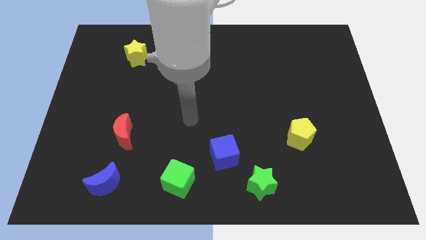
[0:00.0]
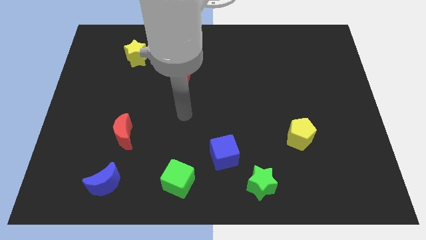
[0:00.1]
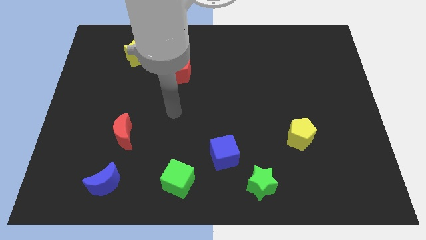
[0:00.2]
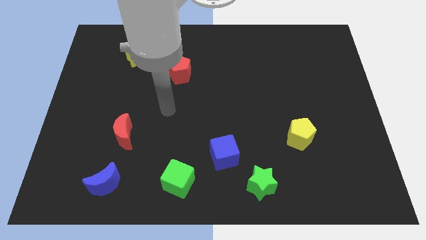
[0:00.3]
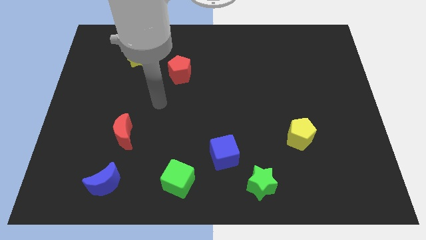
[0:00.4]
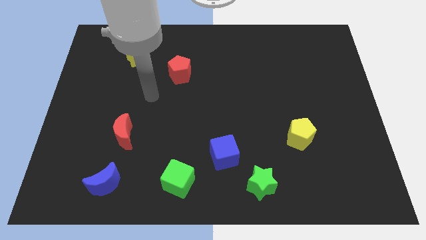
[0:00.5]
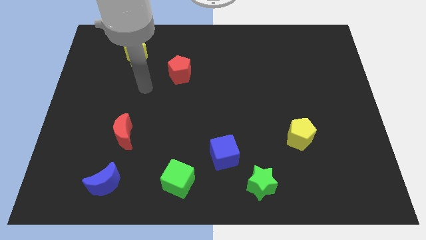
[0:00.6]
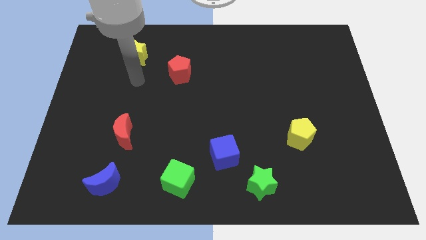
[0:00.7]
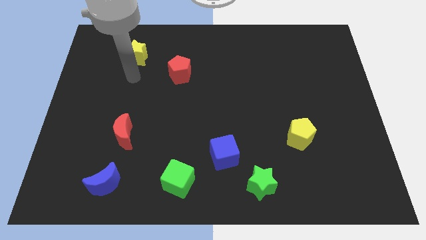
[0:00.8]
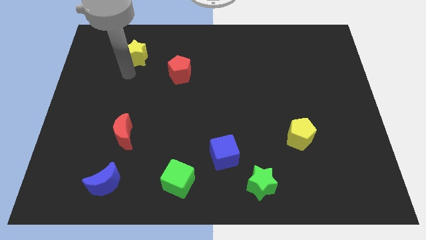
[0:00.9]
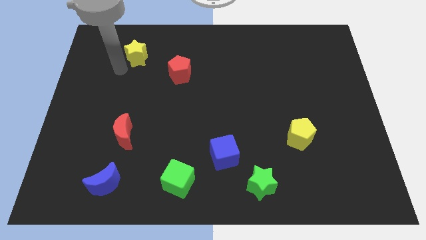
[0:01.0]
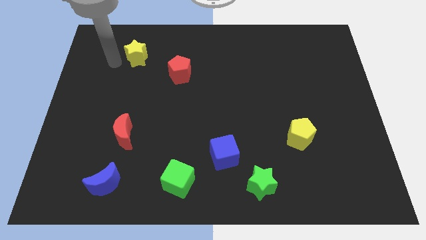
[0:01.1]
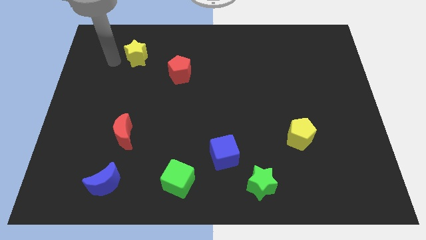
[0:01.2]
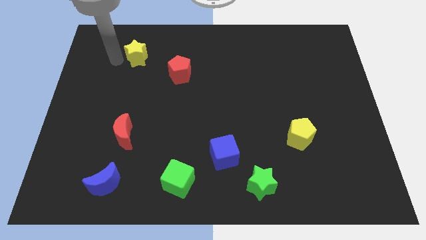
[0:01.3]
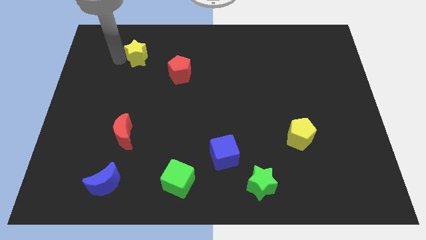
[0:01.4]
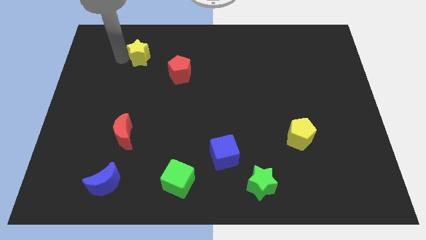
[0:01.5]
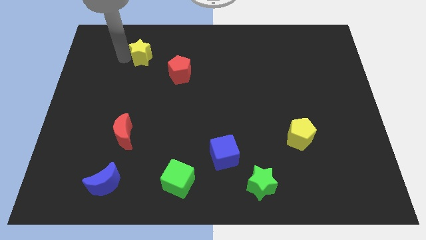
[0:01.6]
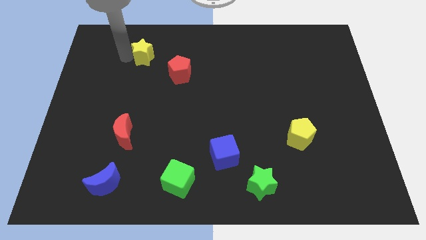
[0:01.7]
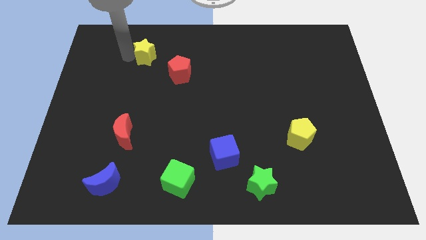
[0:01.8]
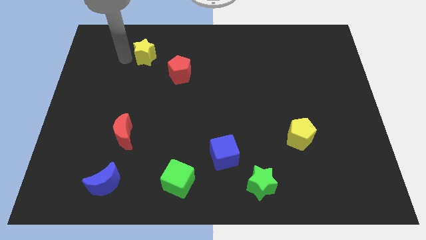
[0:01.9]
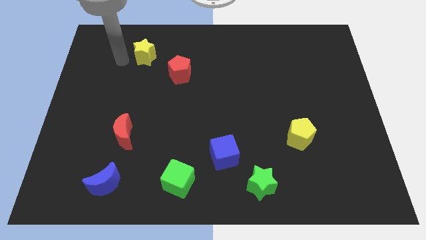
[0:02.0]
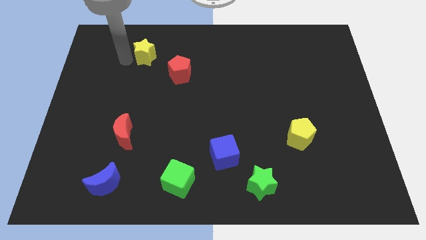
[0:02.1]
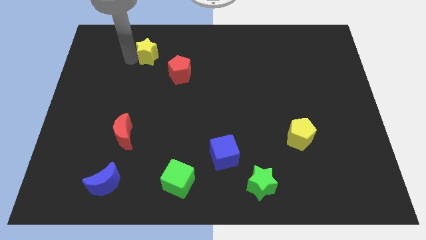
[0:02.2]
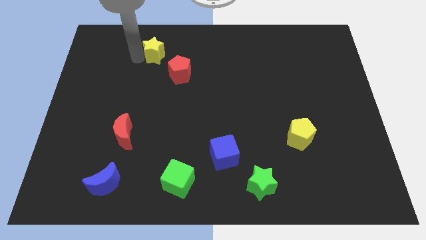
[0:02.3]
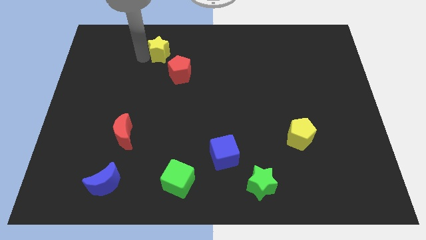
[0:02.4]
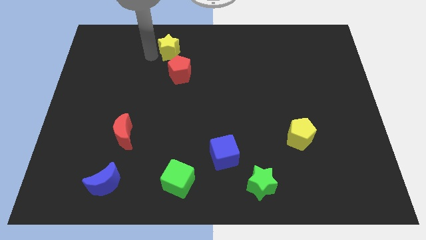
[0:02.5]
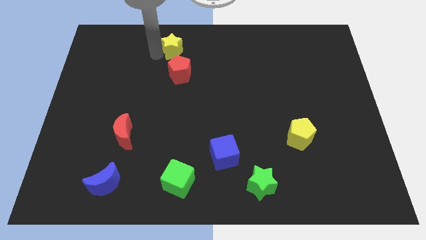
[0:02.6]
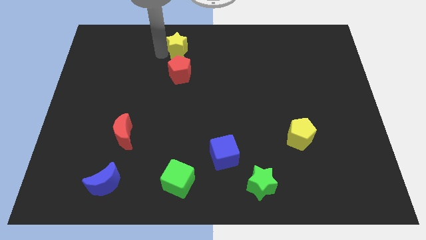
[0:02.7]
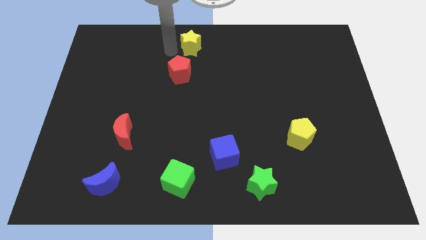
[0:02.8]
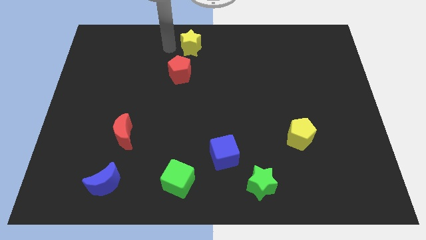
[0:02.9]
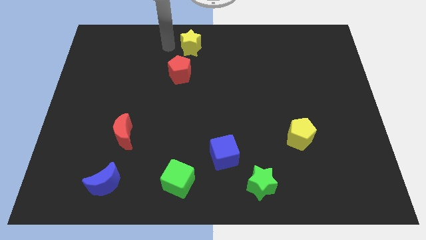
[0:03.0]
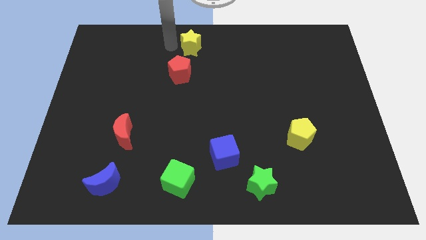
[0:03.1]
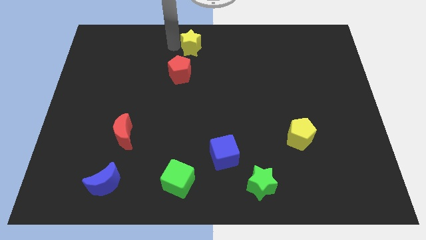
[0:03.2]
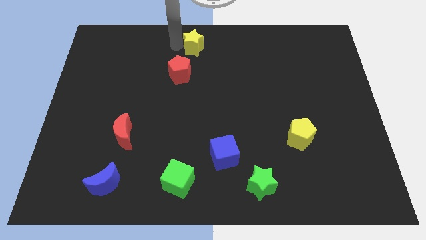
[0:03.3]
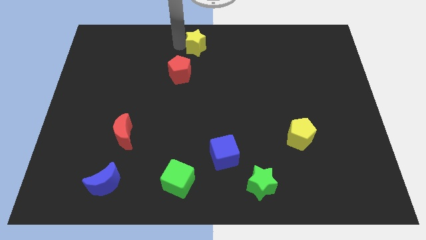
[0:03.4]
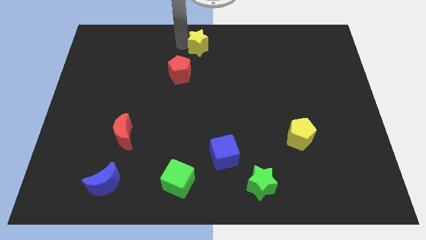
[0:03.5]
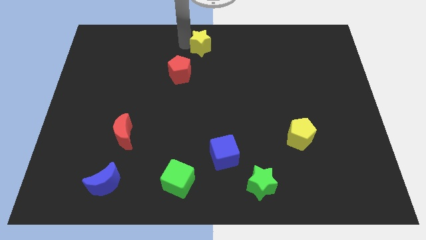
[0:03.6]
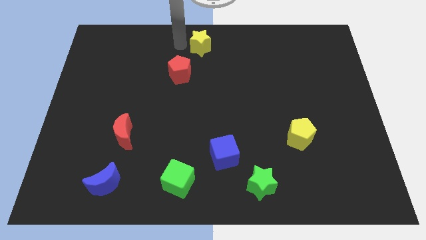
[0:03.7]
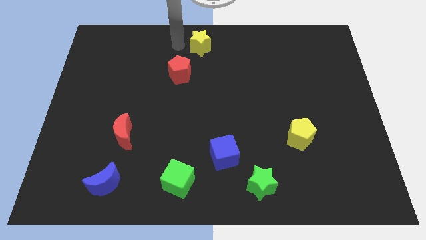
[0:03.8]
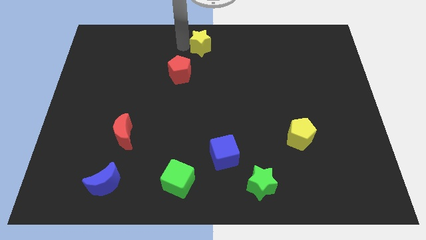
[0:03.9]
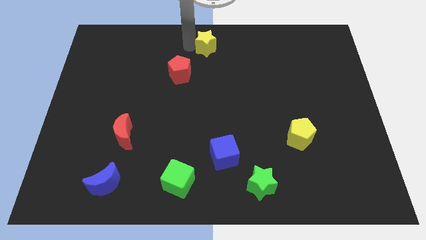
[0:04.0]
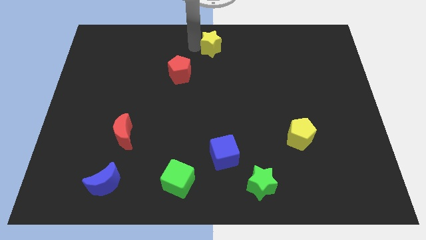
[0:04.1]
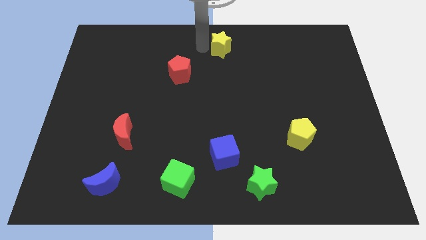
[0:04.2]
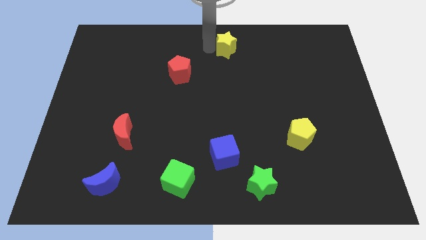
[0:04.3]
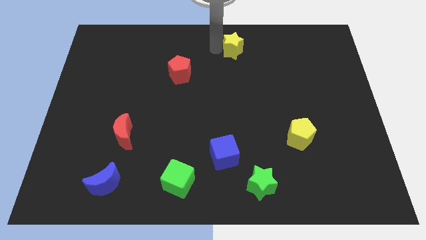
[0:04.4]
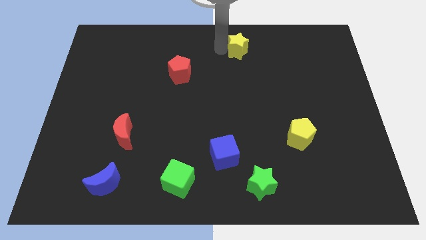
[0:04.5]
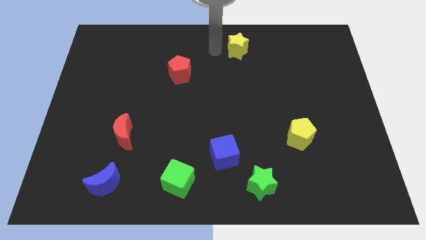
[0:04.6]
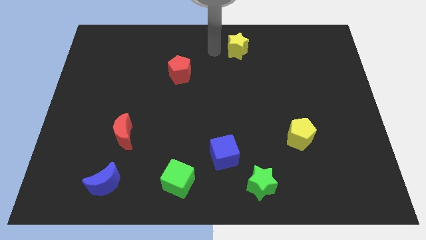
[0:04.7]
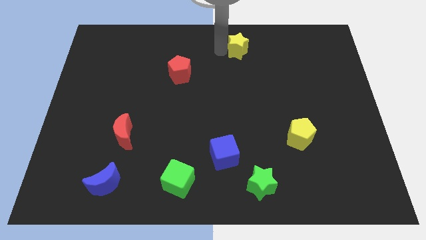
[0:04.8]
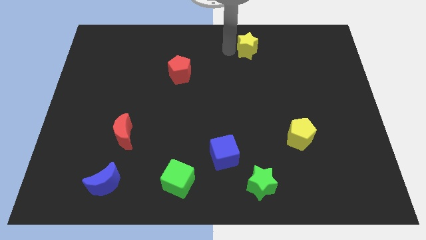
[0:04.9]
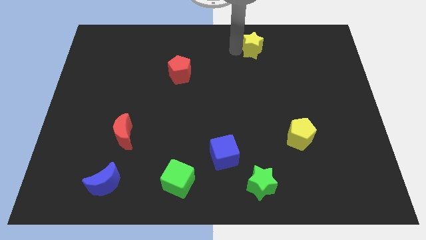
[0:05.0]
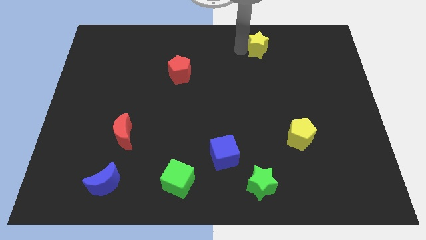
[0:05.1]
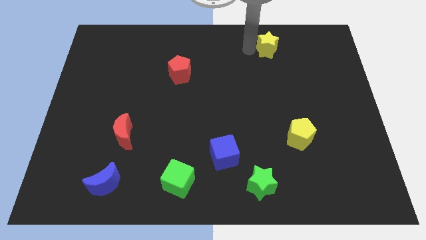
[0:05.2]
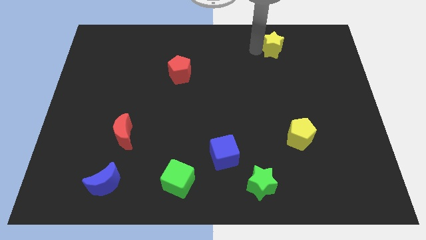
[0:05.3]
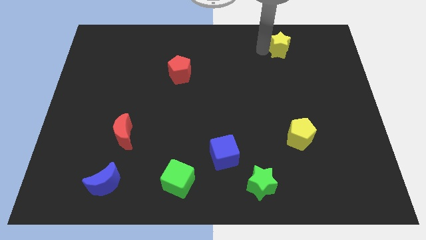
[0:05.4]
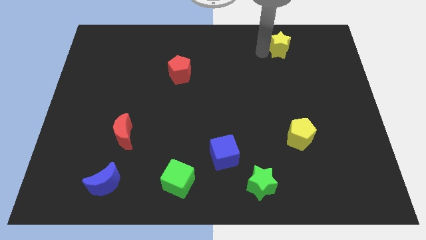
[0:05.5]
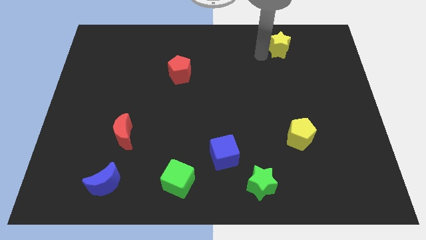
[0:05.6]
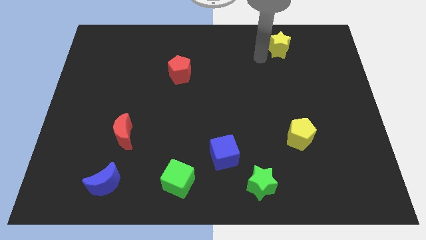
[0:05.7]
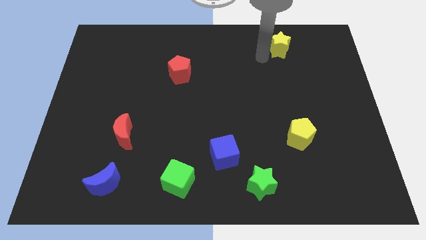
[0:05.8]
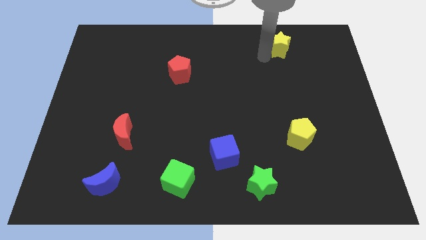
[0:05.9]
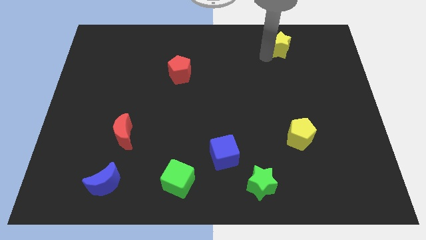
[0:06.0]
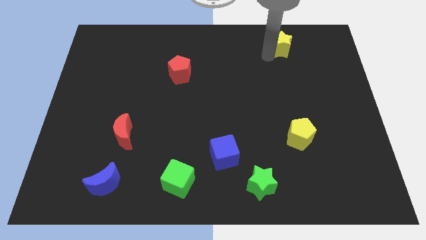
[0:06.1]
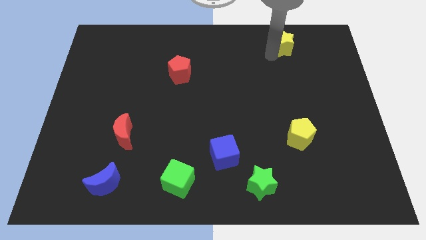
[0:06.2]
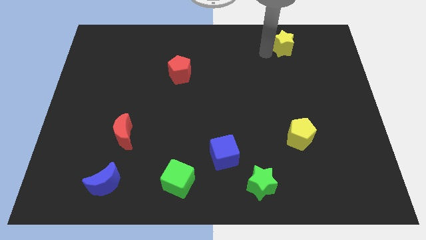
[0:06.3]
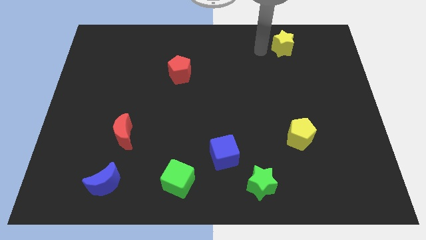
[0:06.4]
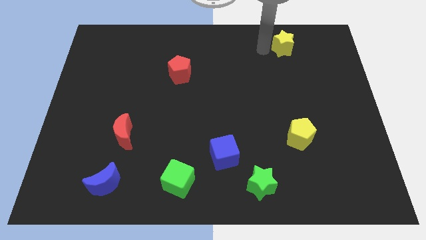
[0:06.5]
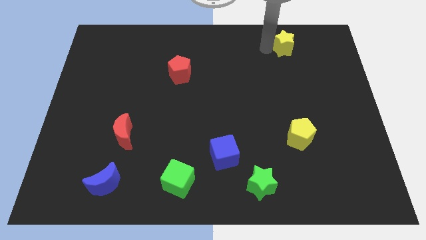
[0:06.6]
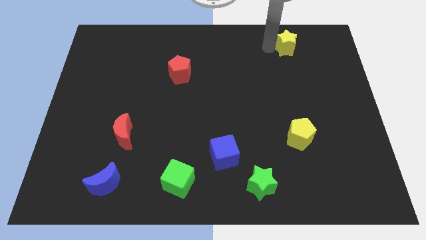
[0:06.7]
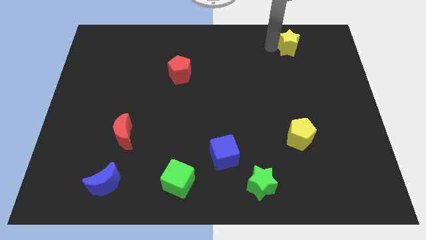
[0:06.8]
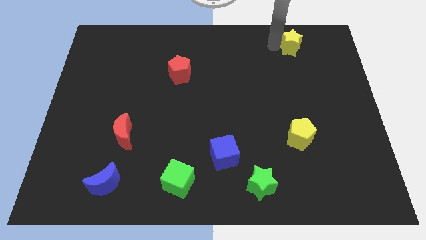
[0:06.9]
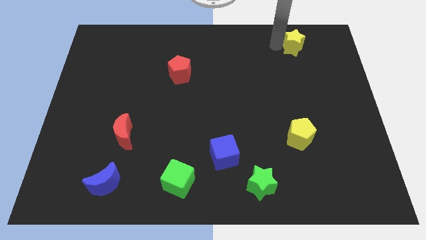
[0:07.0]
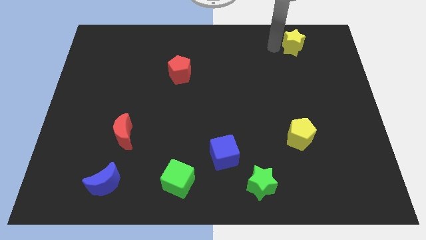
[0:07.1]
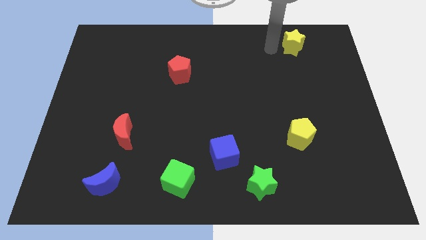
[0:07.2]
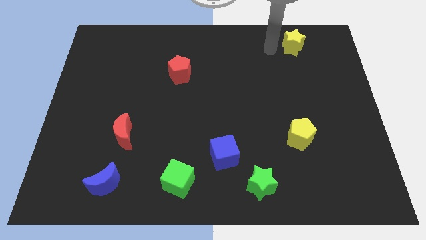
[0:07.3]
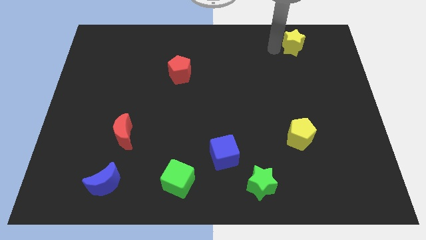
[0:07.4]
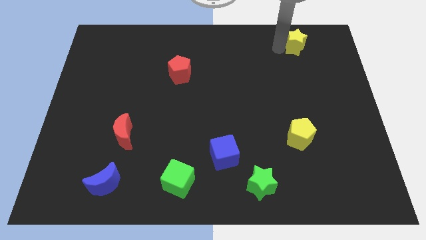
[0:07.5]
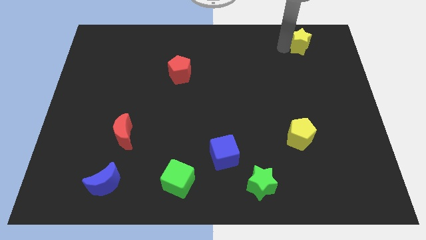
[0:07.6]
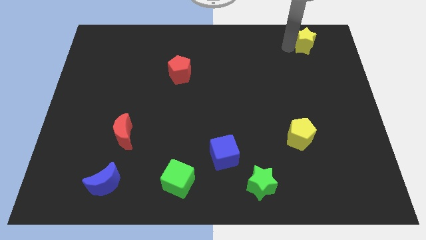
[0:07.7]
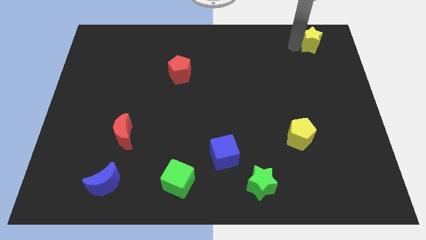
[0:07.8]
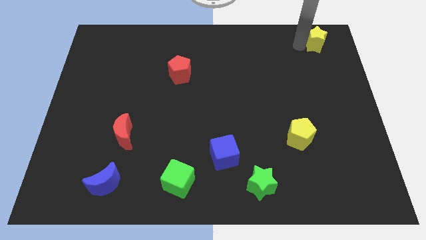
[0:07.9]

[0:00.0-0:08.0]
push the yellow star to the top right corner
